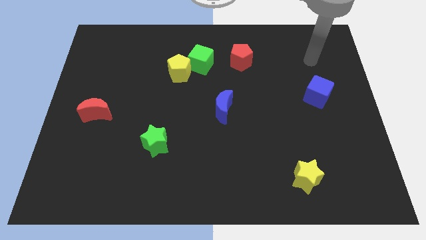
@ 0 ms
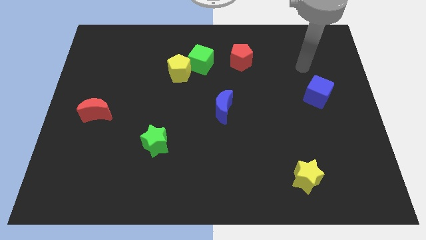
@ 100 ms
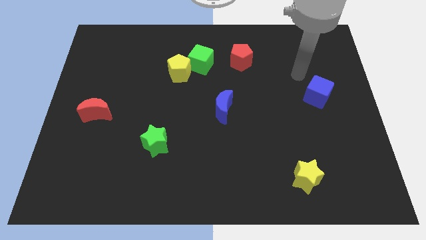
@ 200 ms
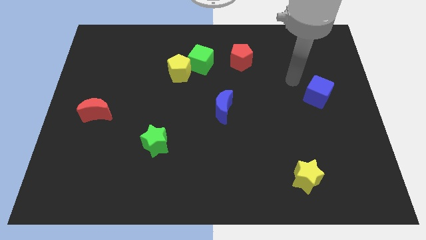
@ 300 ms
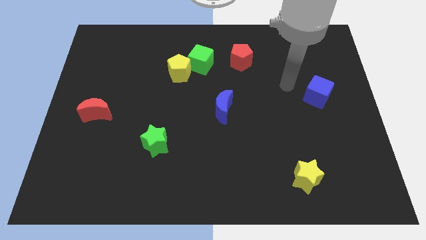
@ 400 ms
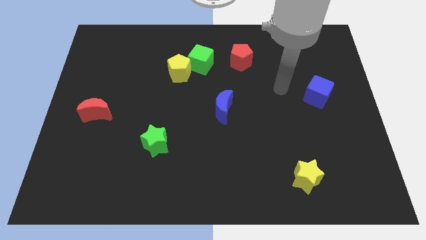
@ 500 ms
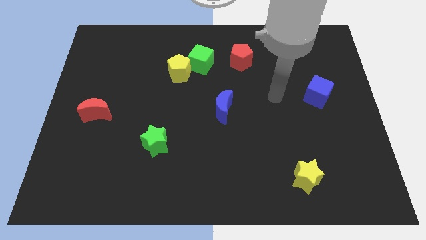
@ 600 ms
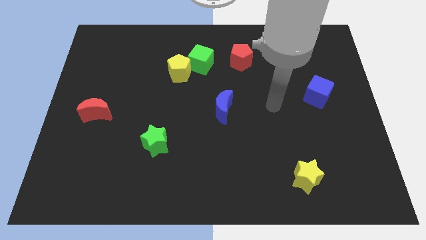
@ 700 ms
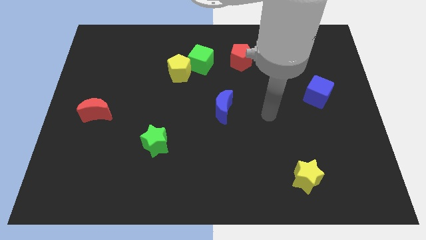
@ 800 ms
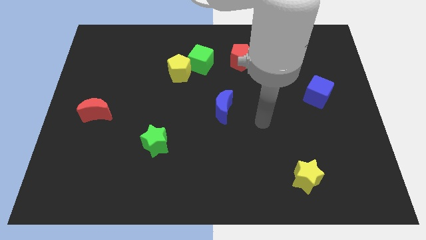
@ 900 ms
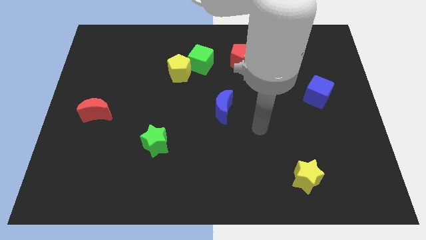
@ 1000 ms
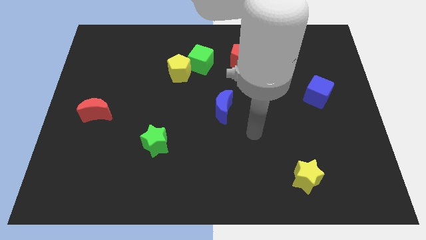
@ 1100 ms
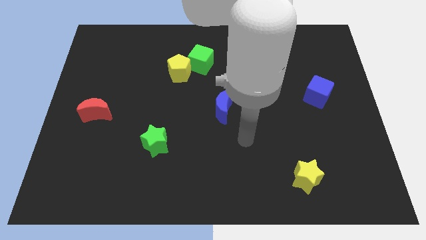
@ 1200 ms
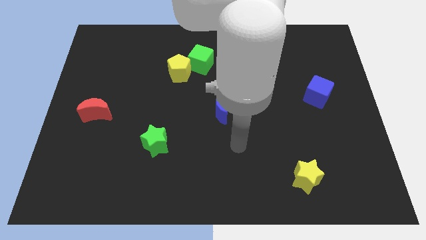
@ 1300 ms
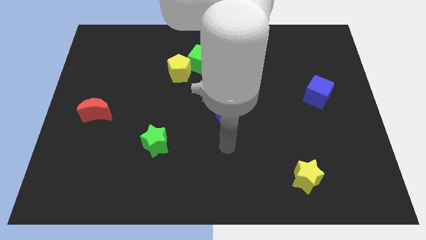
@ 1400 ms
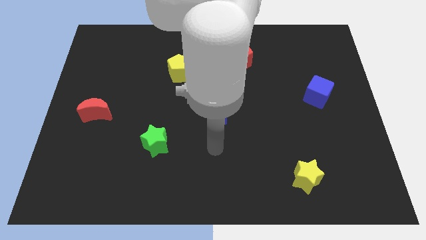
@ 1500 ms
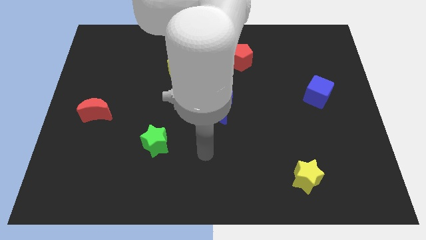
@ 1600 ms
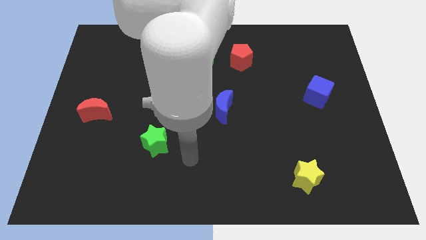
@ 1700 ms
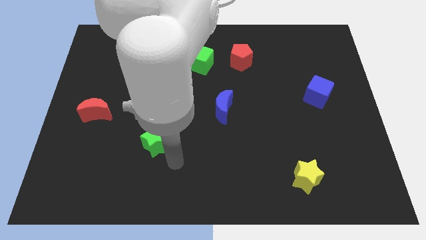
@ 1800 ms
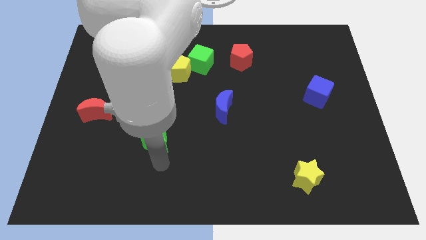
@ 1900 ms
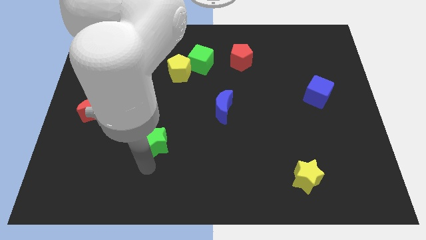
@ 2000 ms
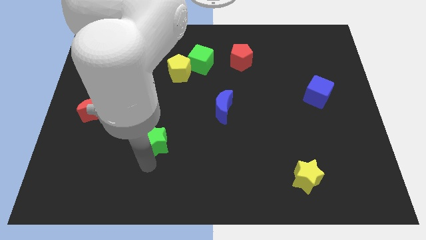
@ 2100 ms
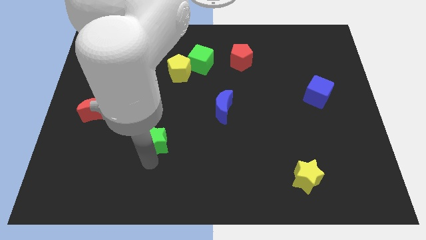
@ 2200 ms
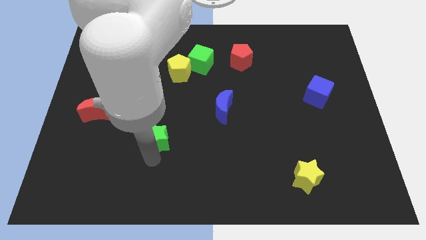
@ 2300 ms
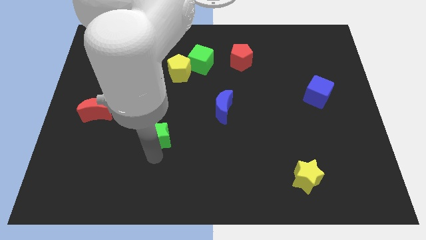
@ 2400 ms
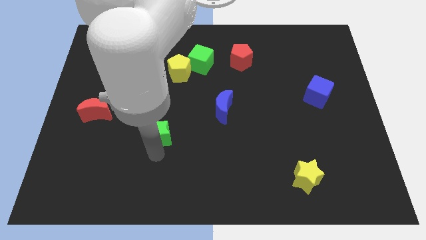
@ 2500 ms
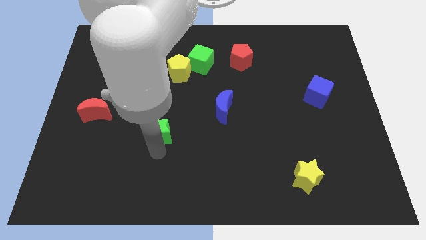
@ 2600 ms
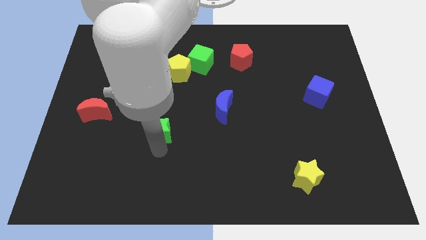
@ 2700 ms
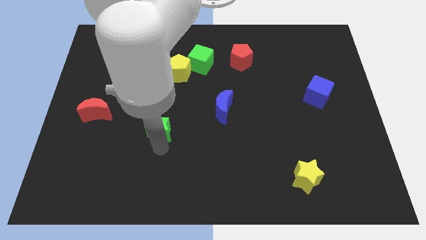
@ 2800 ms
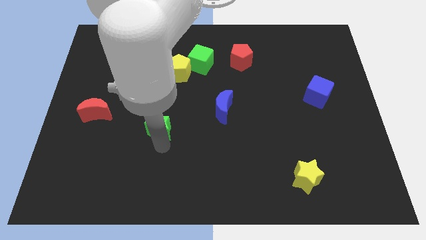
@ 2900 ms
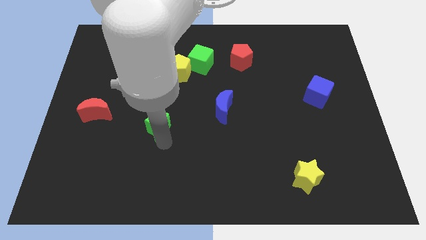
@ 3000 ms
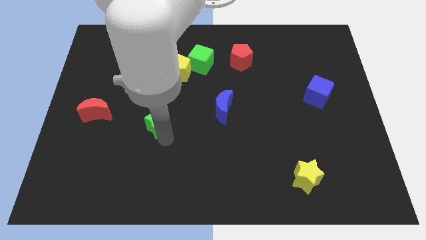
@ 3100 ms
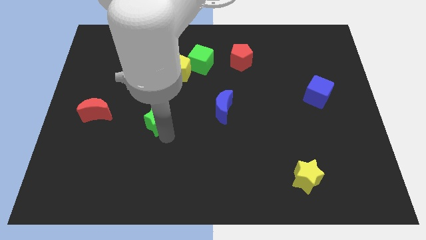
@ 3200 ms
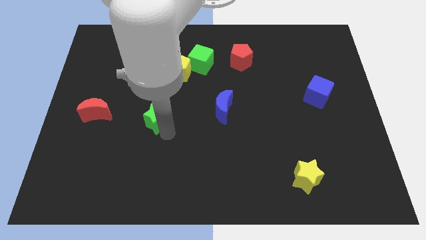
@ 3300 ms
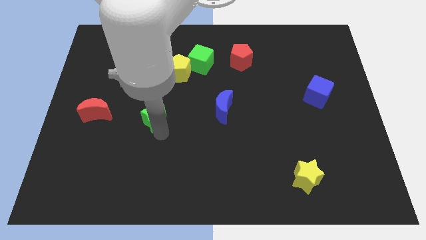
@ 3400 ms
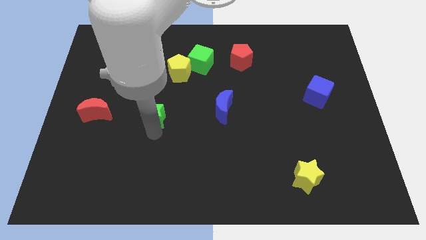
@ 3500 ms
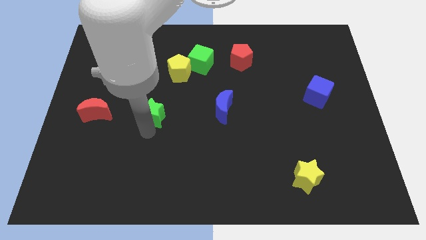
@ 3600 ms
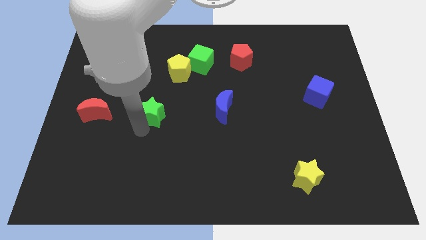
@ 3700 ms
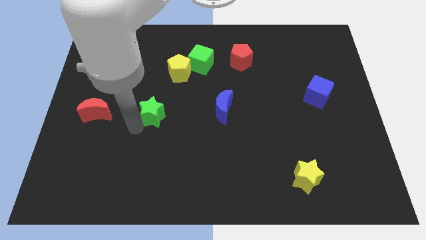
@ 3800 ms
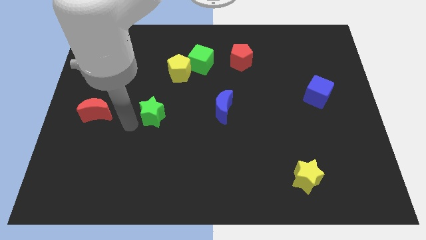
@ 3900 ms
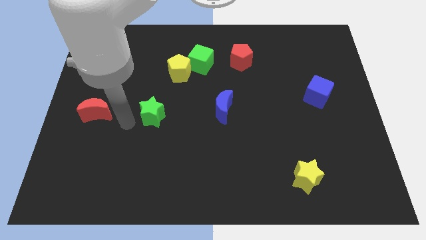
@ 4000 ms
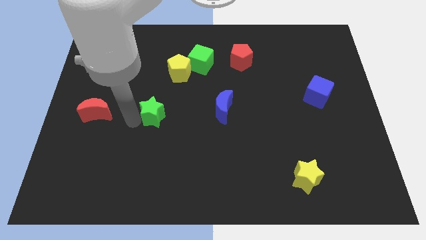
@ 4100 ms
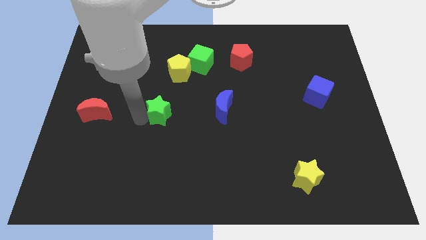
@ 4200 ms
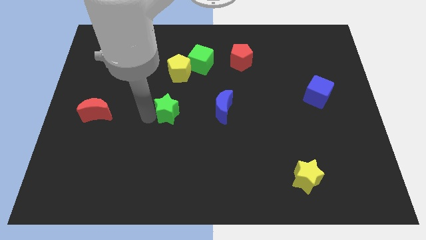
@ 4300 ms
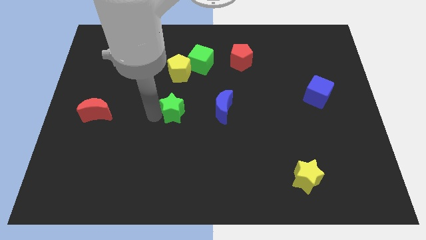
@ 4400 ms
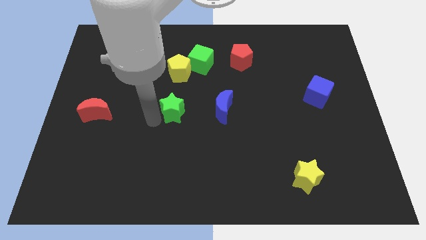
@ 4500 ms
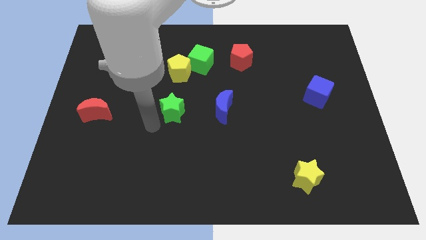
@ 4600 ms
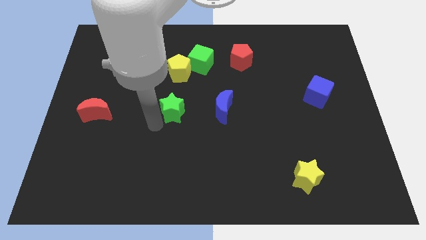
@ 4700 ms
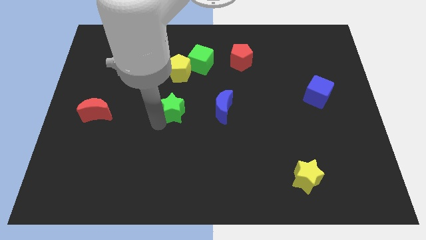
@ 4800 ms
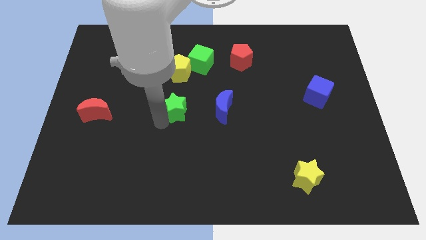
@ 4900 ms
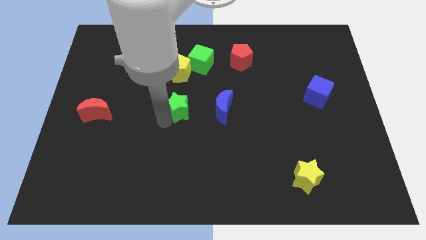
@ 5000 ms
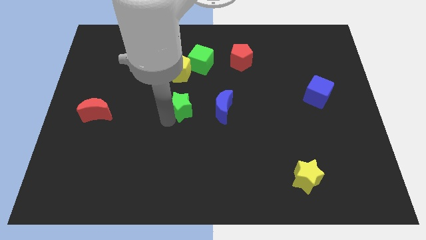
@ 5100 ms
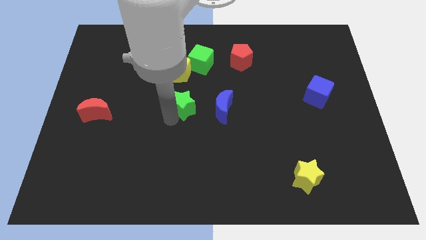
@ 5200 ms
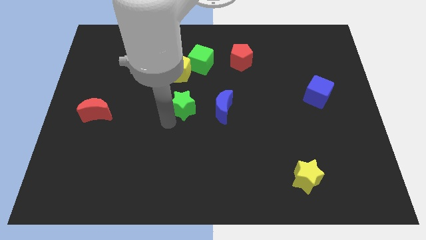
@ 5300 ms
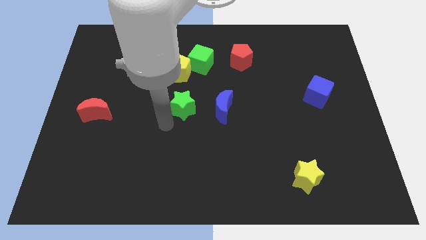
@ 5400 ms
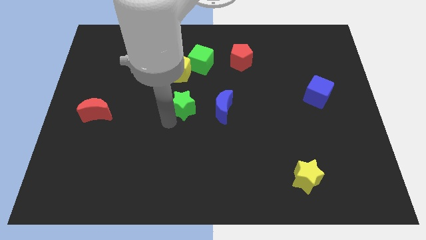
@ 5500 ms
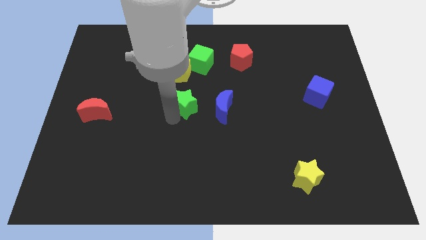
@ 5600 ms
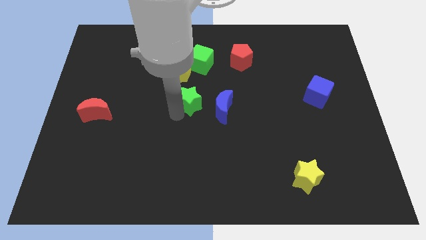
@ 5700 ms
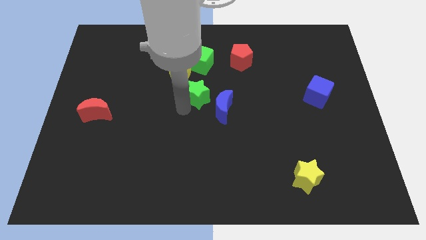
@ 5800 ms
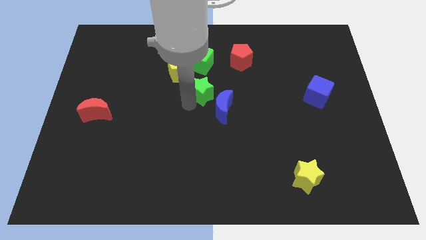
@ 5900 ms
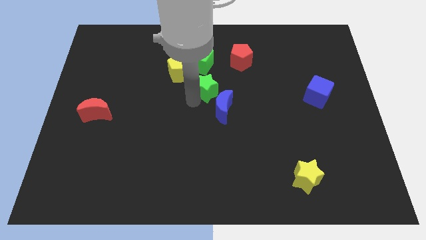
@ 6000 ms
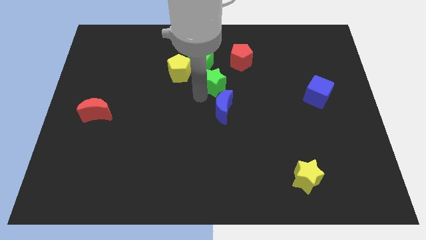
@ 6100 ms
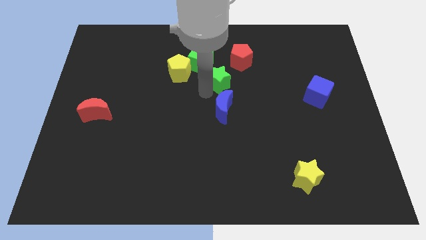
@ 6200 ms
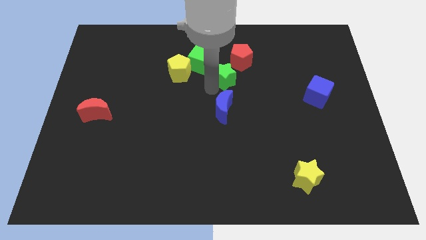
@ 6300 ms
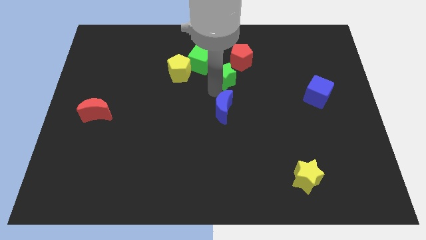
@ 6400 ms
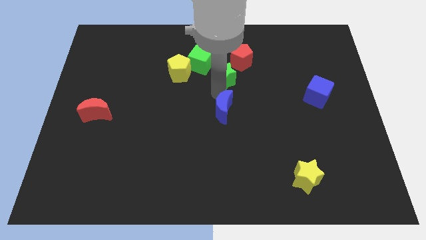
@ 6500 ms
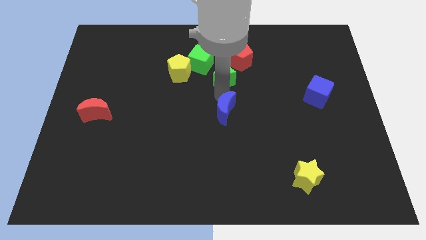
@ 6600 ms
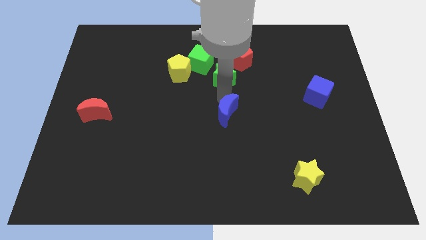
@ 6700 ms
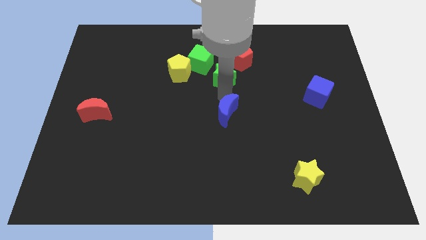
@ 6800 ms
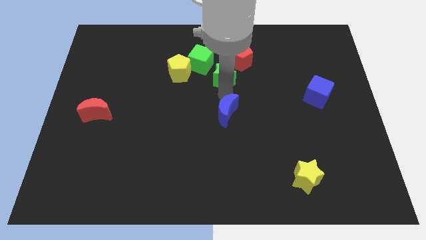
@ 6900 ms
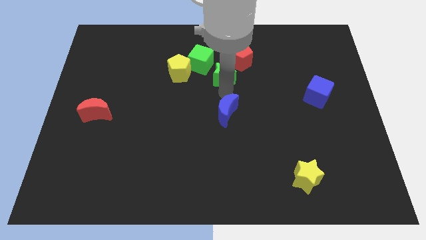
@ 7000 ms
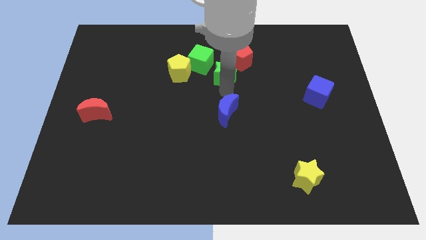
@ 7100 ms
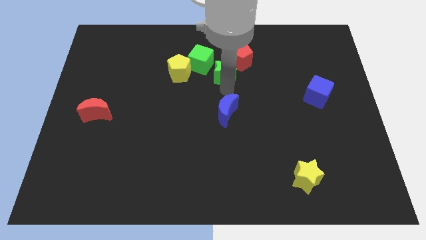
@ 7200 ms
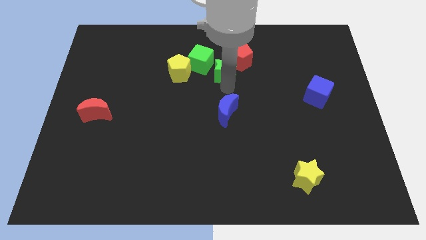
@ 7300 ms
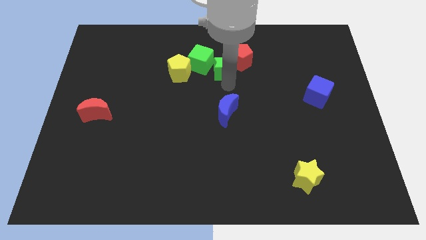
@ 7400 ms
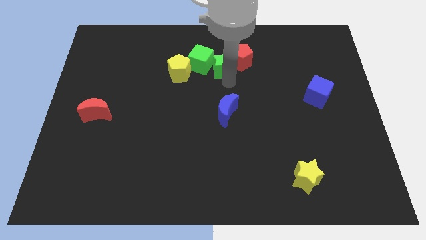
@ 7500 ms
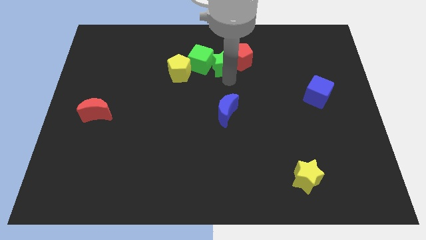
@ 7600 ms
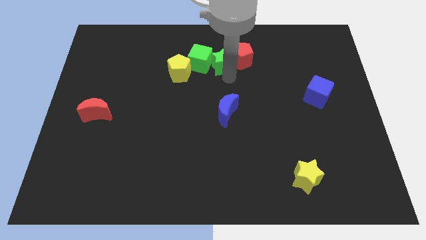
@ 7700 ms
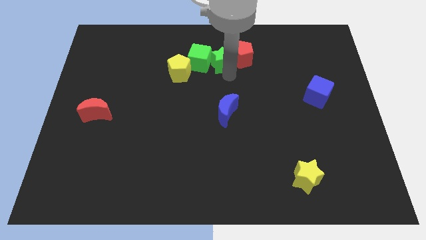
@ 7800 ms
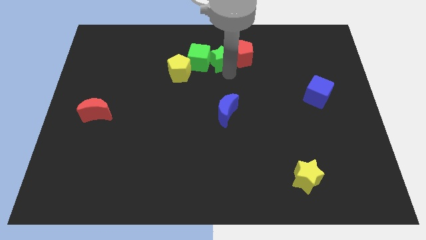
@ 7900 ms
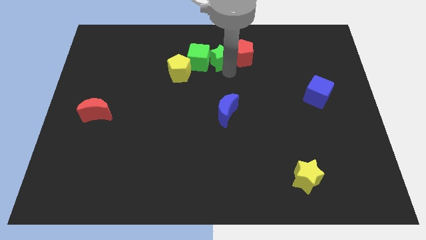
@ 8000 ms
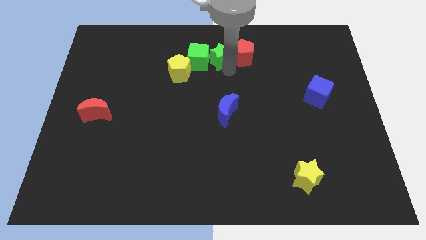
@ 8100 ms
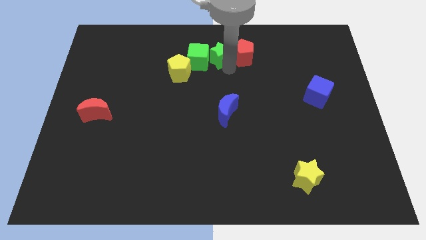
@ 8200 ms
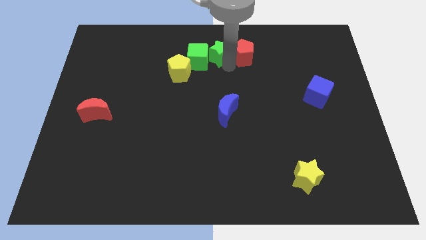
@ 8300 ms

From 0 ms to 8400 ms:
slide the green star to the top side
